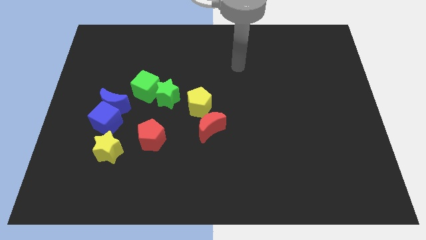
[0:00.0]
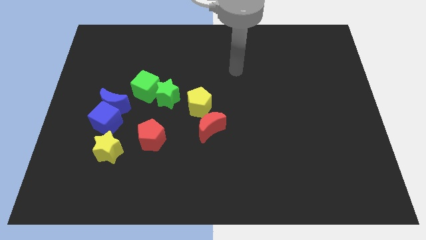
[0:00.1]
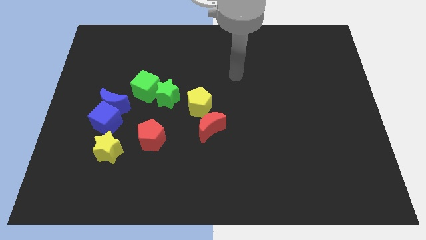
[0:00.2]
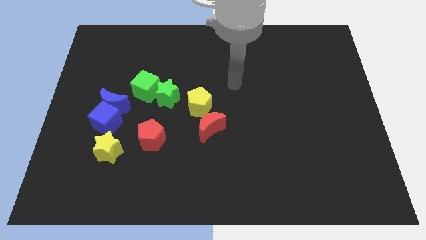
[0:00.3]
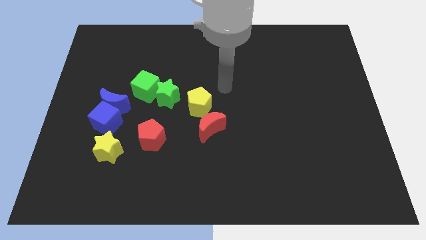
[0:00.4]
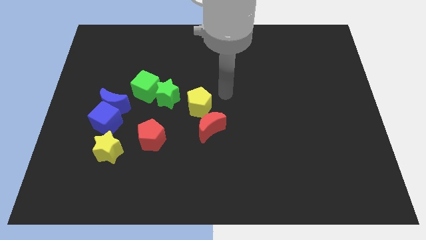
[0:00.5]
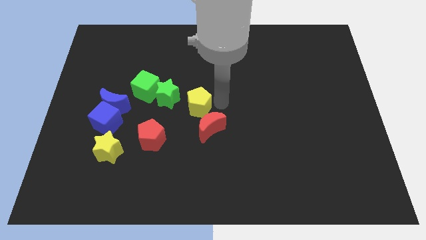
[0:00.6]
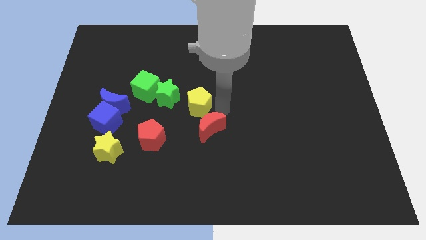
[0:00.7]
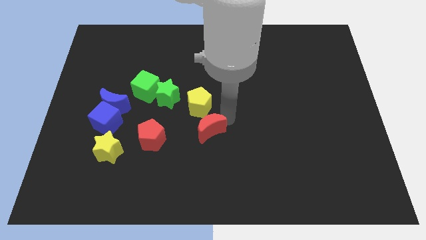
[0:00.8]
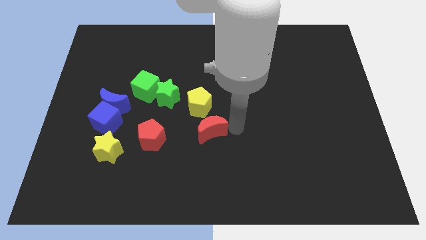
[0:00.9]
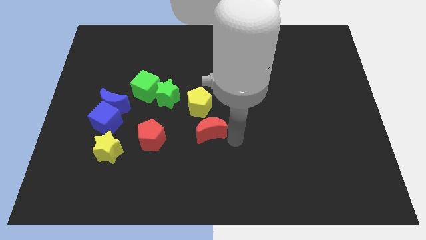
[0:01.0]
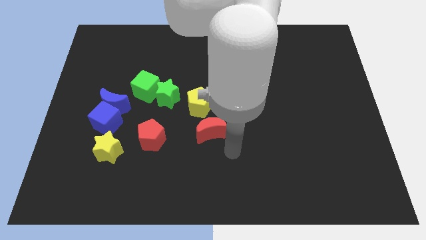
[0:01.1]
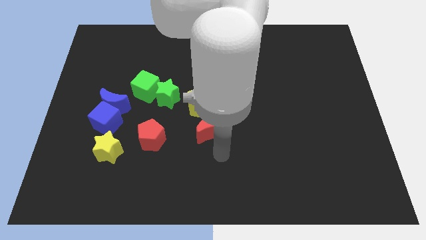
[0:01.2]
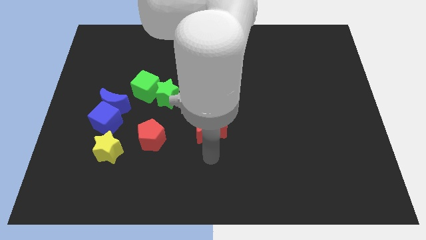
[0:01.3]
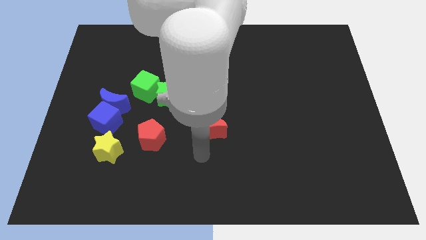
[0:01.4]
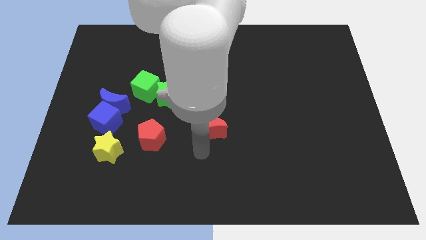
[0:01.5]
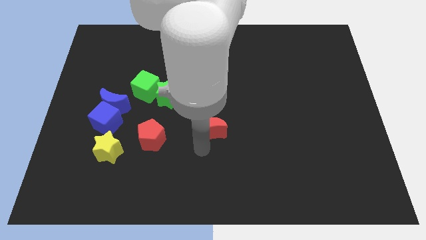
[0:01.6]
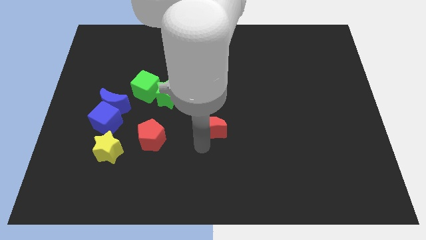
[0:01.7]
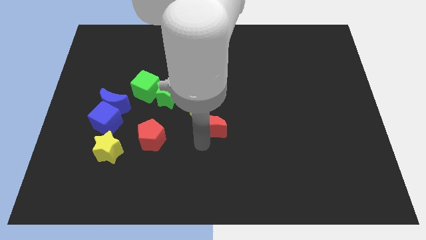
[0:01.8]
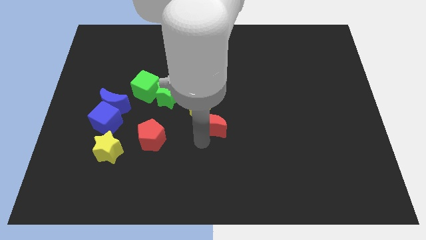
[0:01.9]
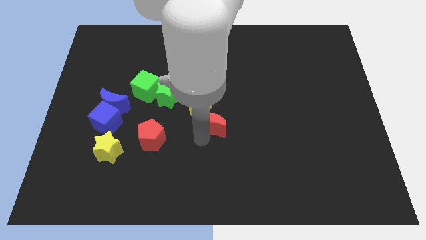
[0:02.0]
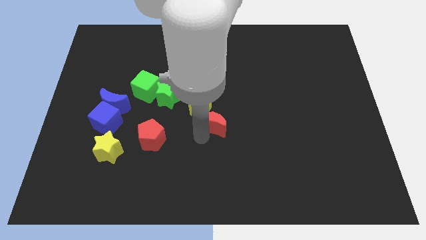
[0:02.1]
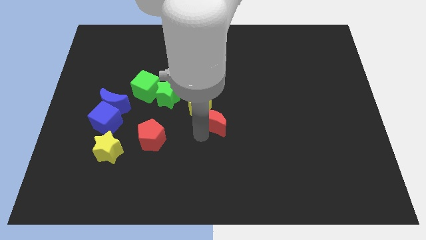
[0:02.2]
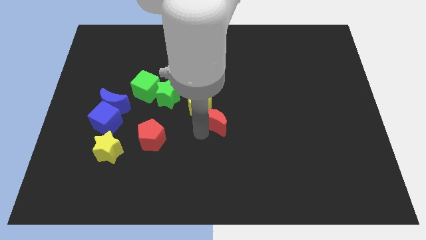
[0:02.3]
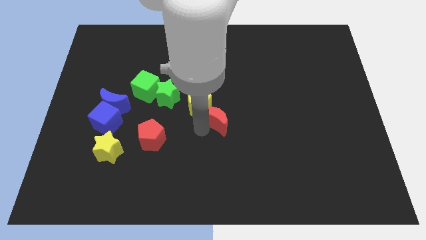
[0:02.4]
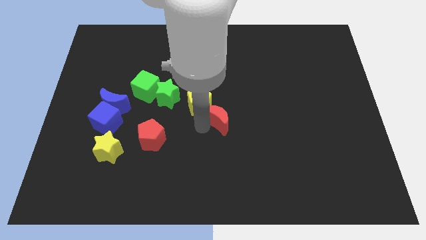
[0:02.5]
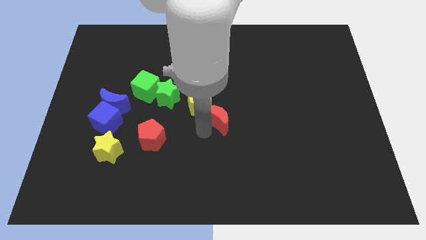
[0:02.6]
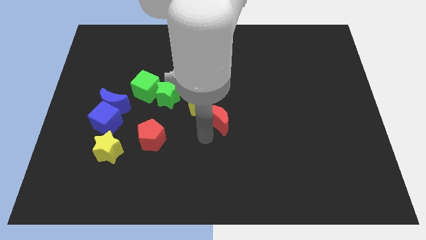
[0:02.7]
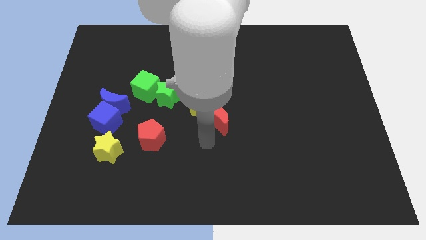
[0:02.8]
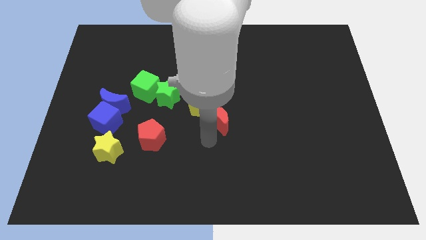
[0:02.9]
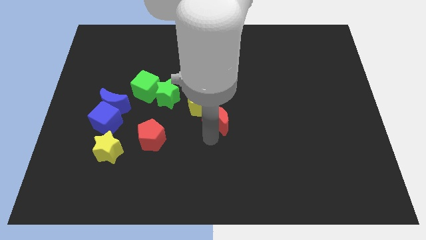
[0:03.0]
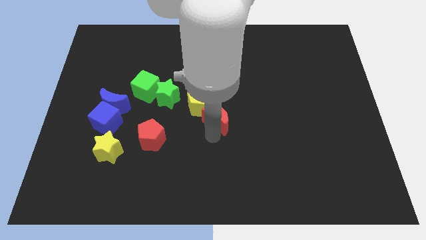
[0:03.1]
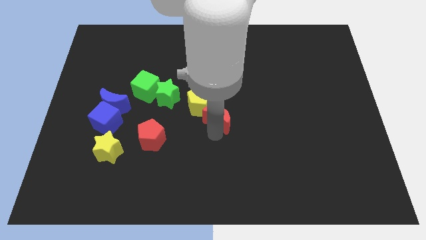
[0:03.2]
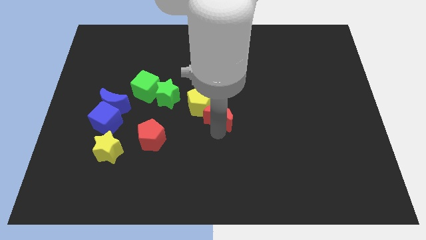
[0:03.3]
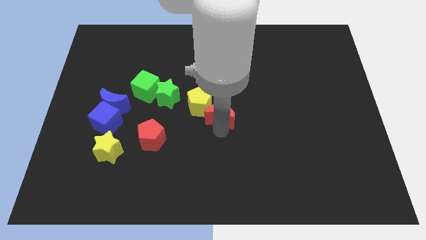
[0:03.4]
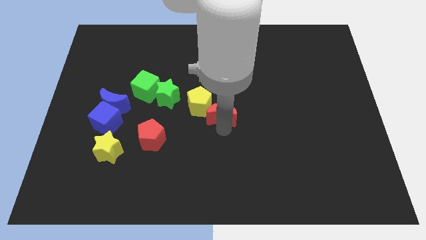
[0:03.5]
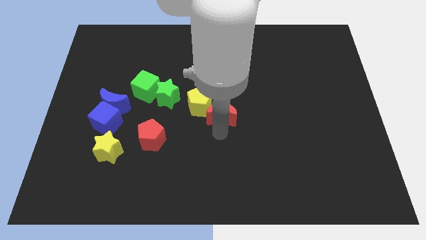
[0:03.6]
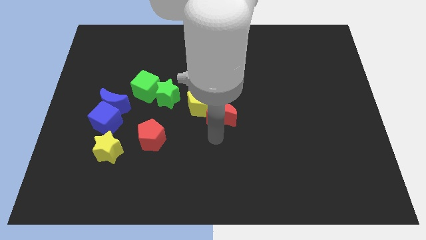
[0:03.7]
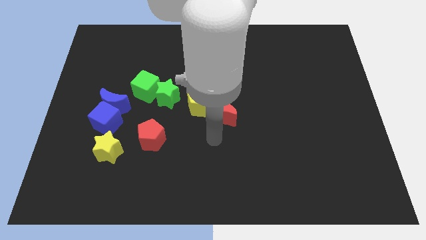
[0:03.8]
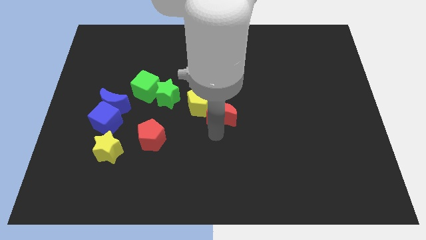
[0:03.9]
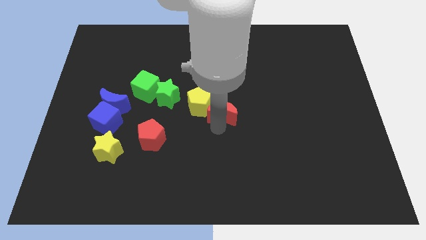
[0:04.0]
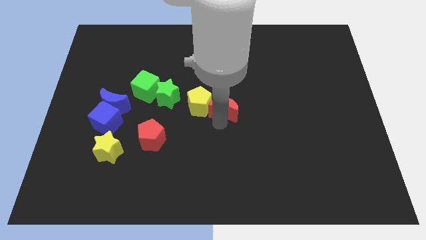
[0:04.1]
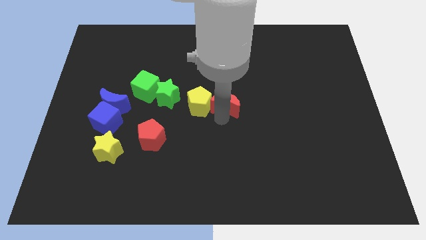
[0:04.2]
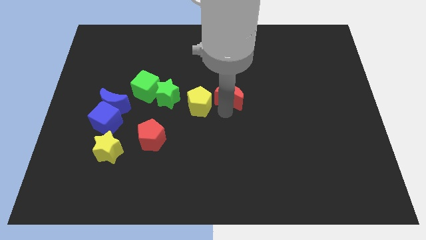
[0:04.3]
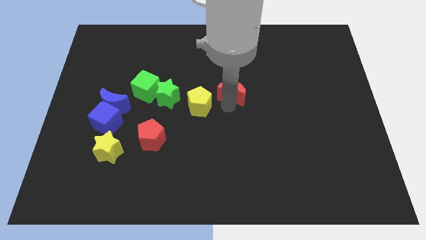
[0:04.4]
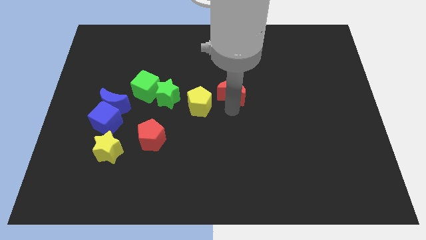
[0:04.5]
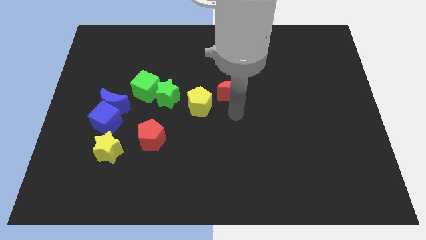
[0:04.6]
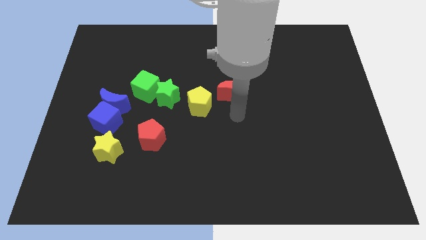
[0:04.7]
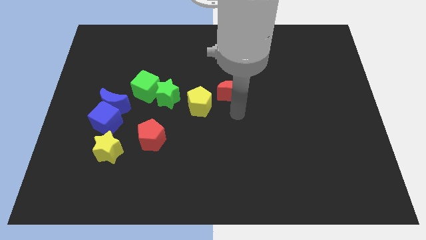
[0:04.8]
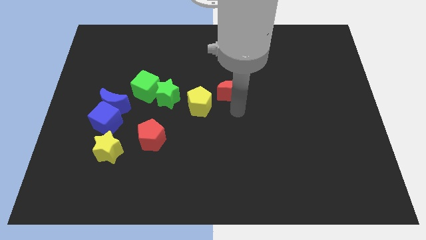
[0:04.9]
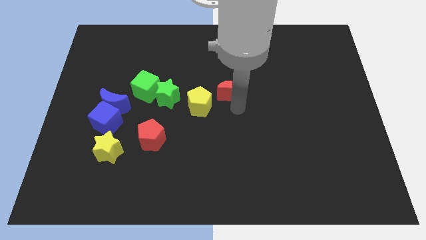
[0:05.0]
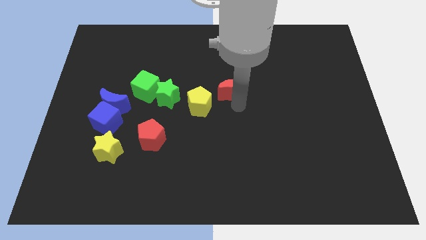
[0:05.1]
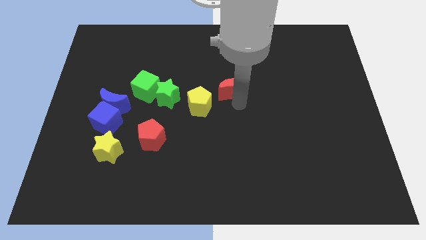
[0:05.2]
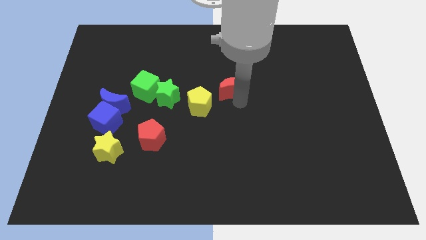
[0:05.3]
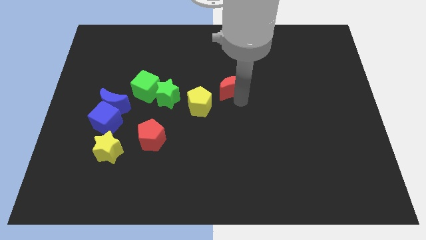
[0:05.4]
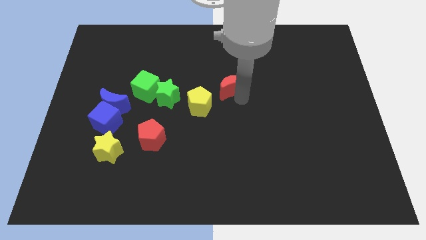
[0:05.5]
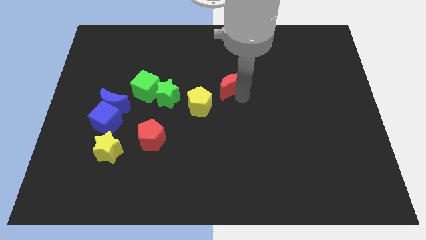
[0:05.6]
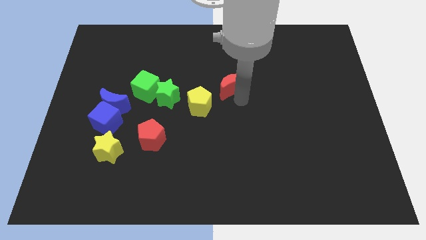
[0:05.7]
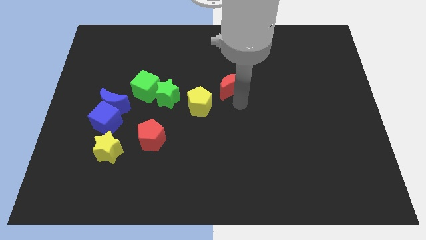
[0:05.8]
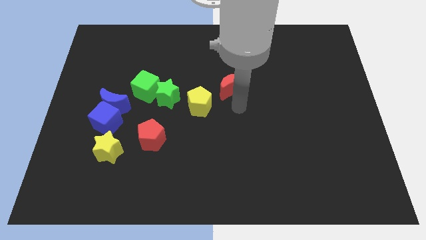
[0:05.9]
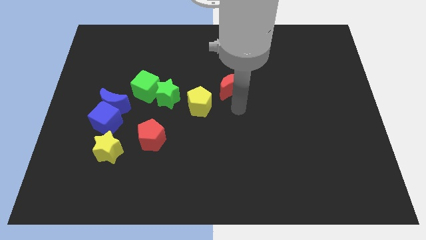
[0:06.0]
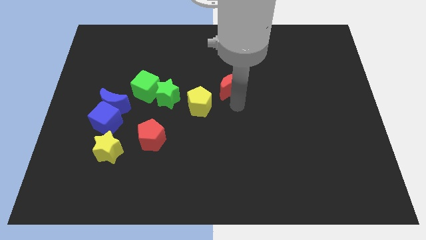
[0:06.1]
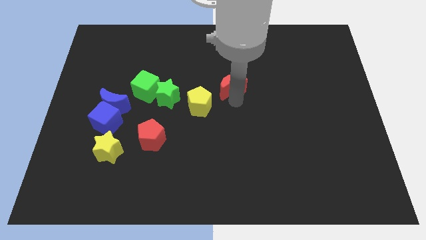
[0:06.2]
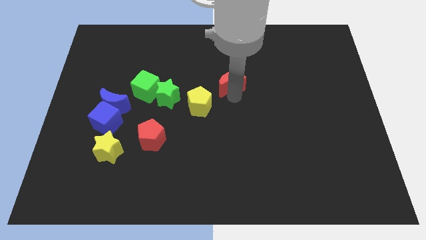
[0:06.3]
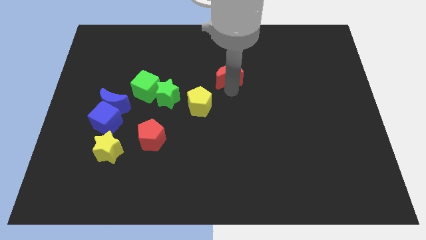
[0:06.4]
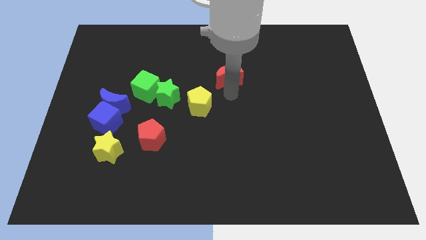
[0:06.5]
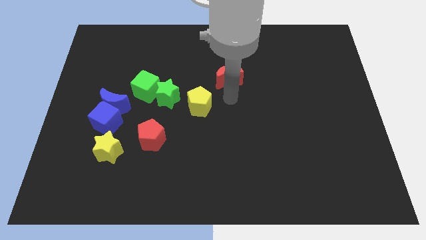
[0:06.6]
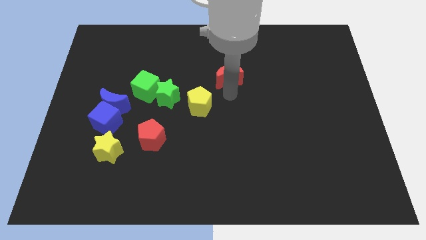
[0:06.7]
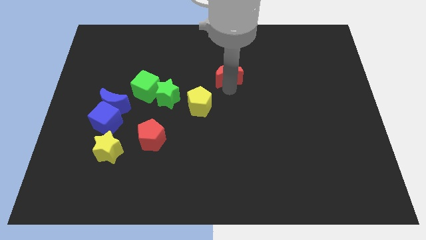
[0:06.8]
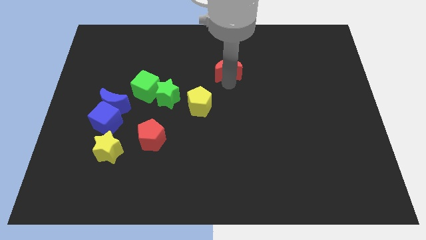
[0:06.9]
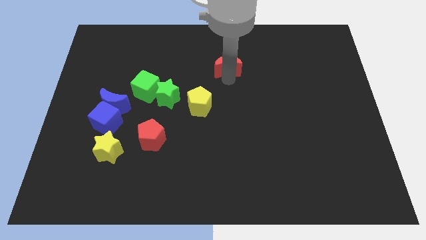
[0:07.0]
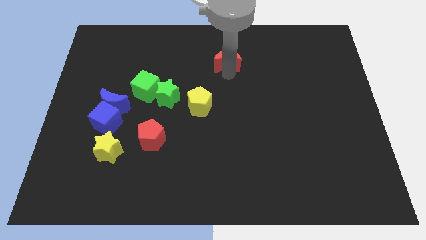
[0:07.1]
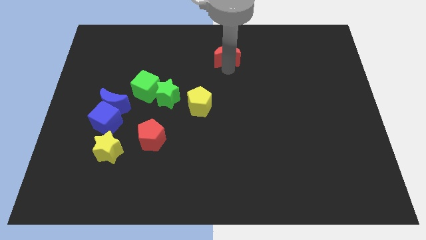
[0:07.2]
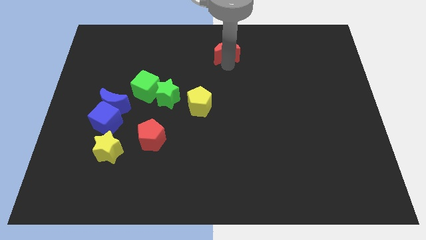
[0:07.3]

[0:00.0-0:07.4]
put the red moon to the towards your base
